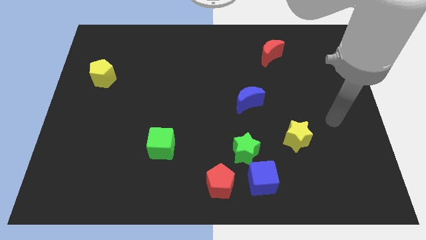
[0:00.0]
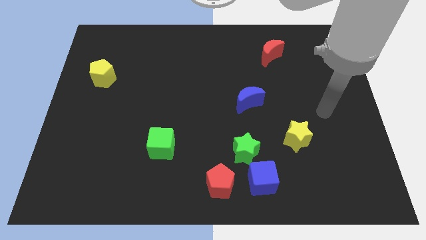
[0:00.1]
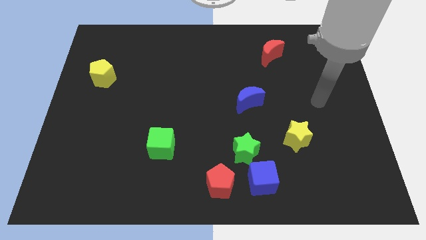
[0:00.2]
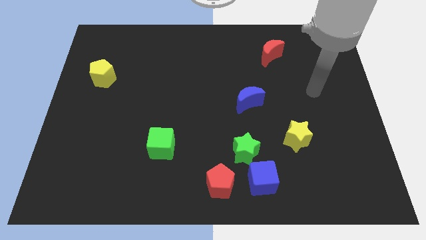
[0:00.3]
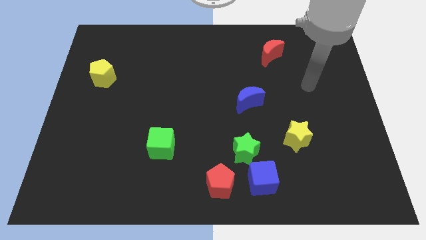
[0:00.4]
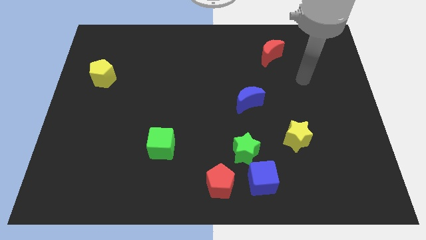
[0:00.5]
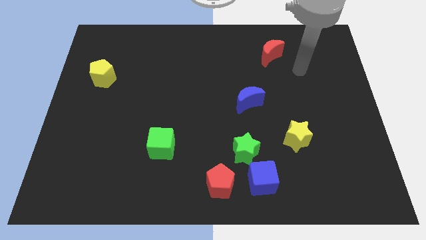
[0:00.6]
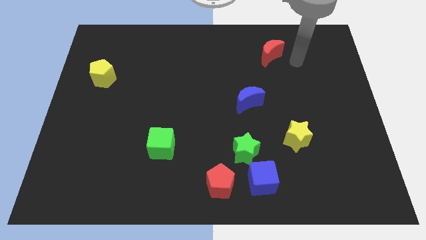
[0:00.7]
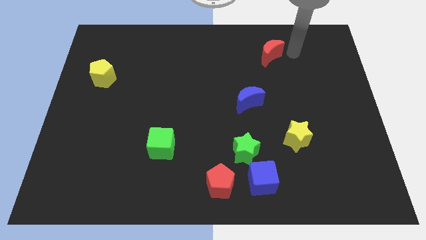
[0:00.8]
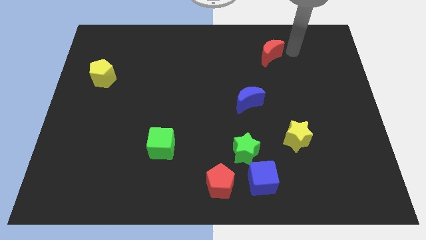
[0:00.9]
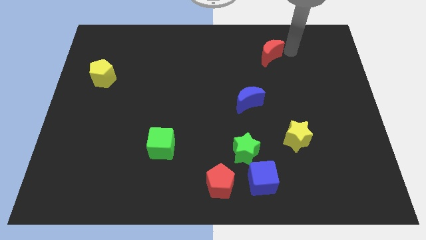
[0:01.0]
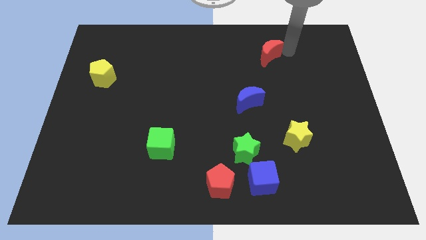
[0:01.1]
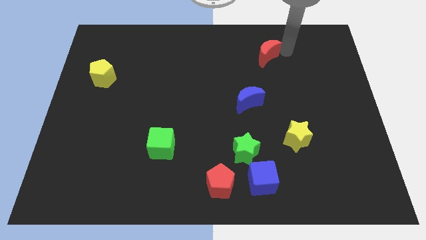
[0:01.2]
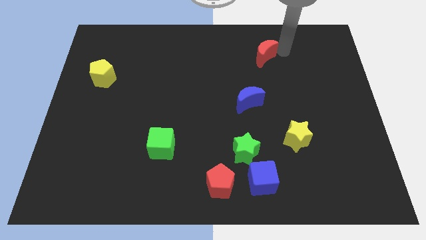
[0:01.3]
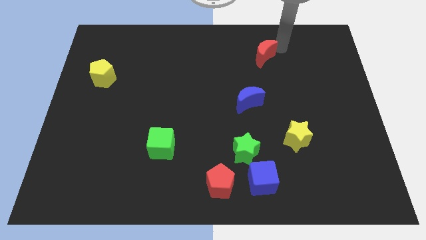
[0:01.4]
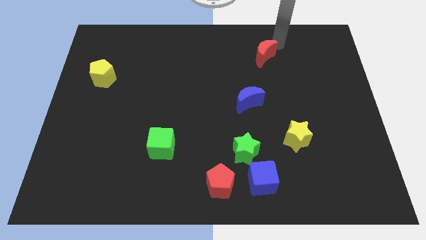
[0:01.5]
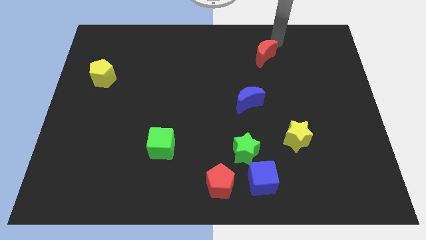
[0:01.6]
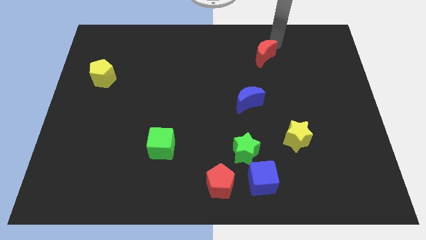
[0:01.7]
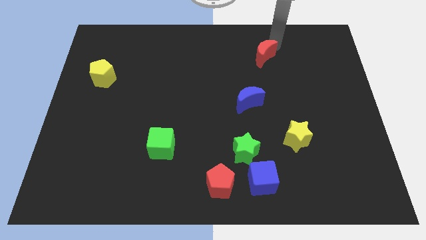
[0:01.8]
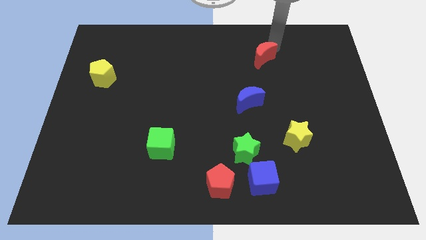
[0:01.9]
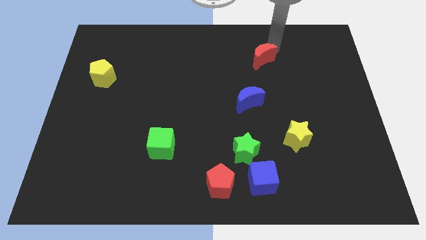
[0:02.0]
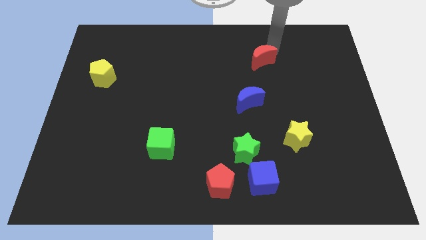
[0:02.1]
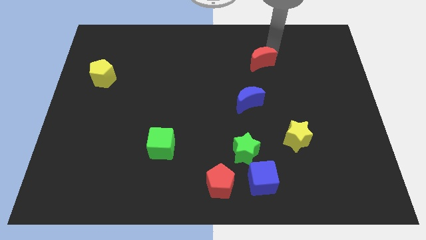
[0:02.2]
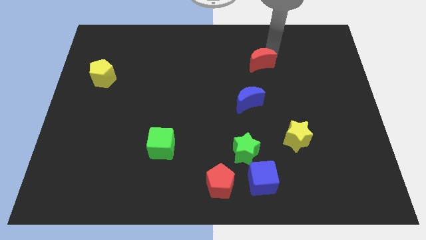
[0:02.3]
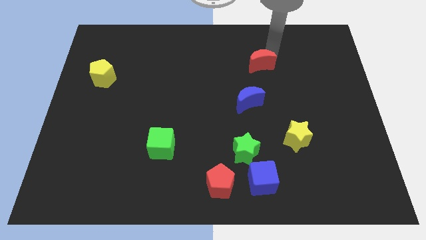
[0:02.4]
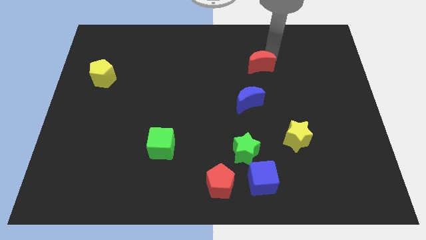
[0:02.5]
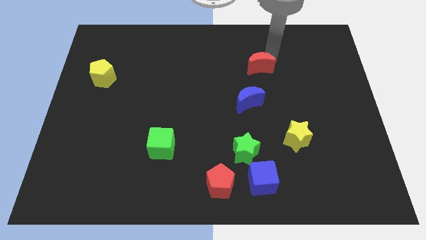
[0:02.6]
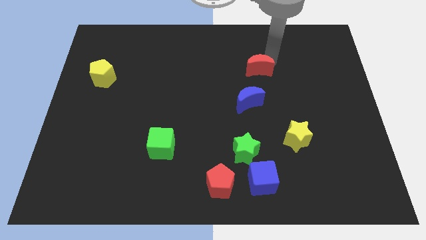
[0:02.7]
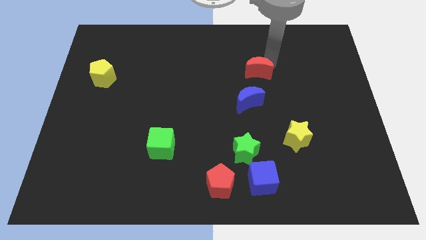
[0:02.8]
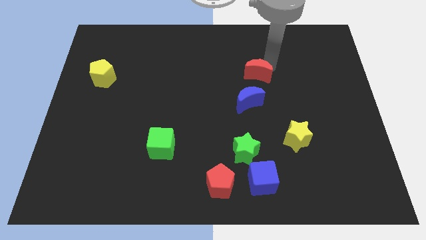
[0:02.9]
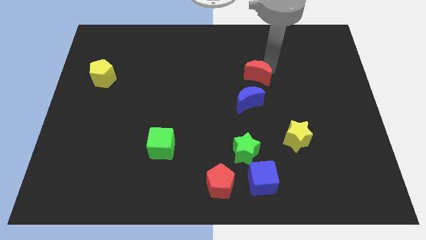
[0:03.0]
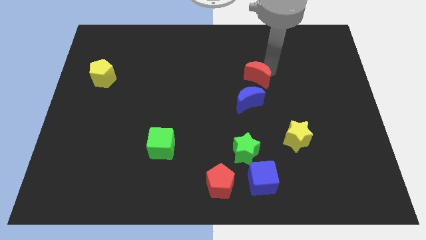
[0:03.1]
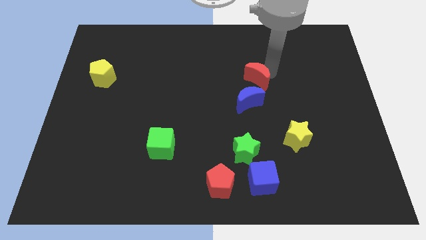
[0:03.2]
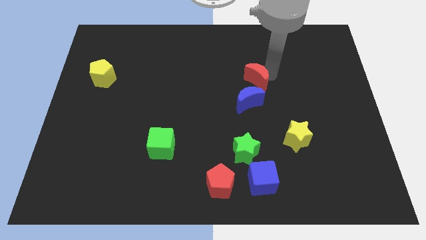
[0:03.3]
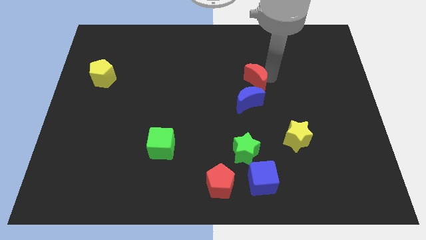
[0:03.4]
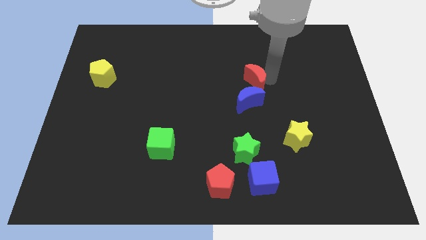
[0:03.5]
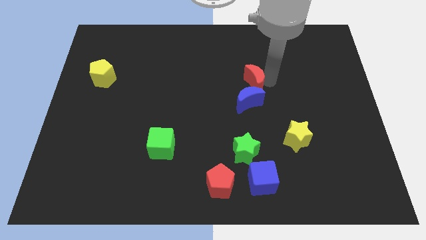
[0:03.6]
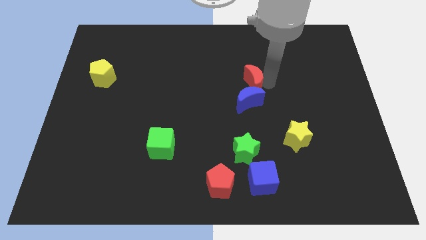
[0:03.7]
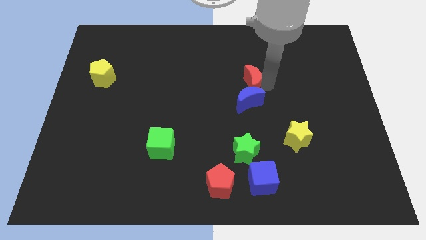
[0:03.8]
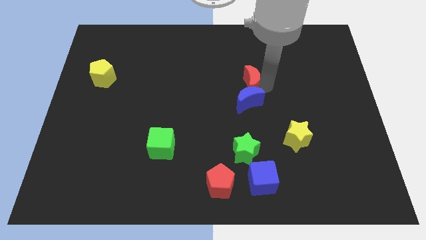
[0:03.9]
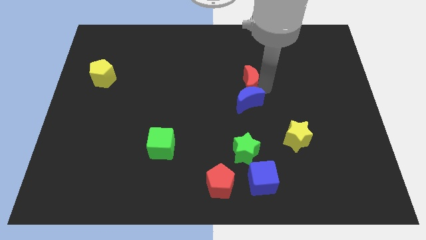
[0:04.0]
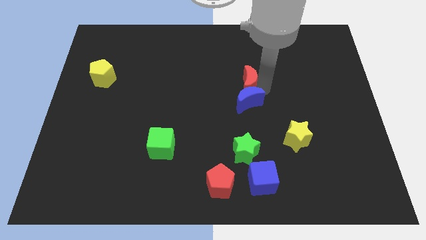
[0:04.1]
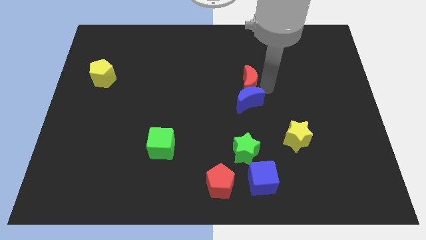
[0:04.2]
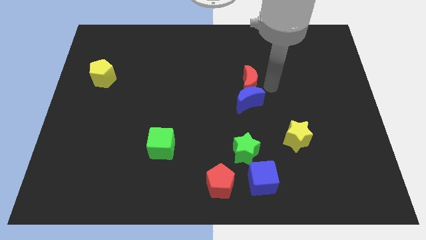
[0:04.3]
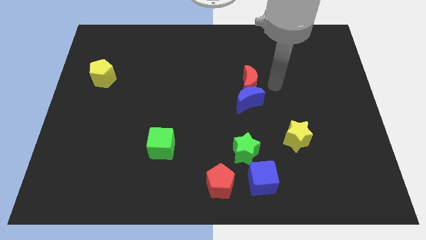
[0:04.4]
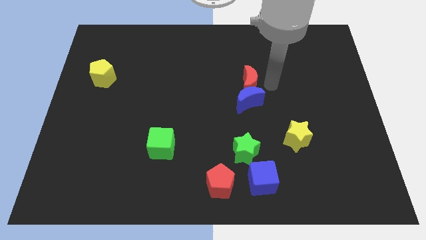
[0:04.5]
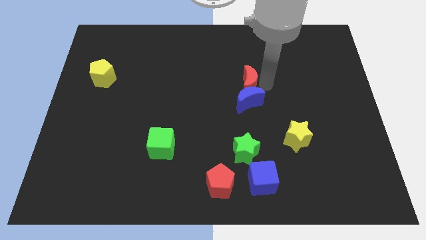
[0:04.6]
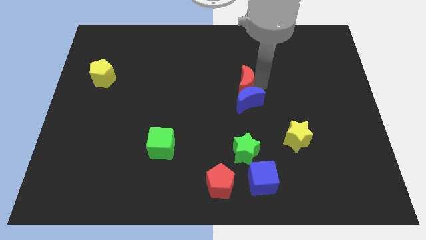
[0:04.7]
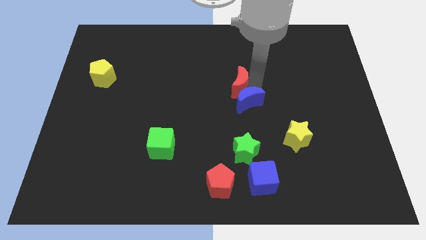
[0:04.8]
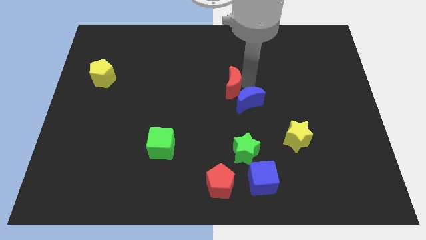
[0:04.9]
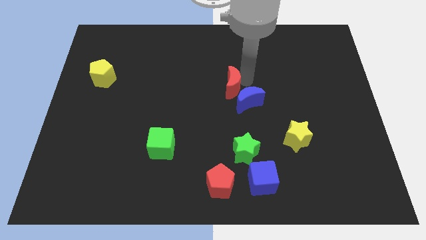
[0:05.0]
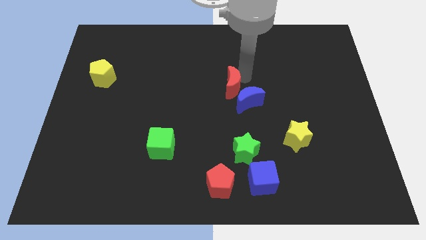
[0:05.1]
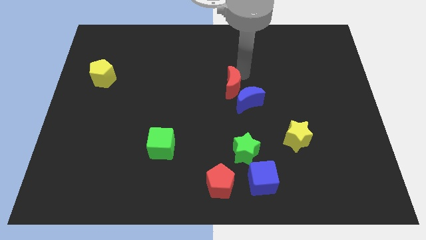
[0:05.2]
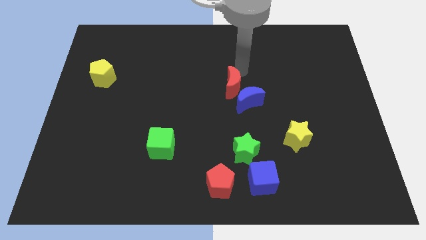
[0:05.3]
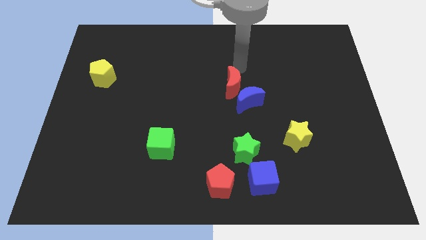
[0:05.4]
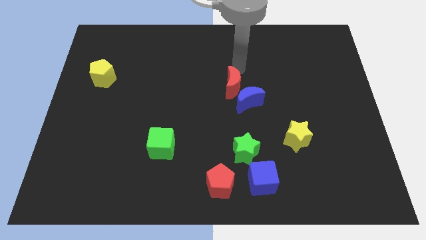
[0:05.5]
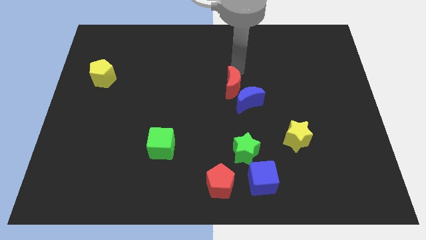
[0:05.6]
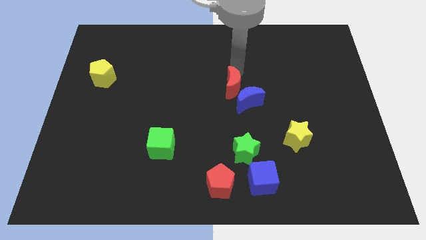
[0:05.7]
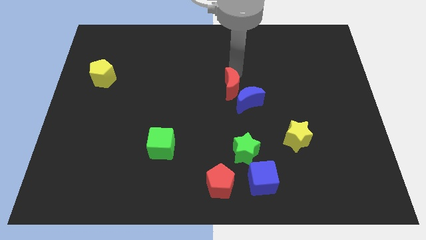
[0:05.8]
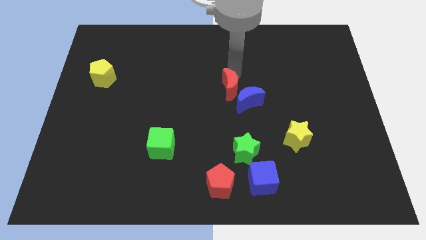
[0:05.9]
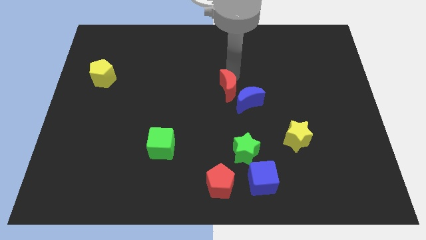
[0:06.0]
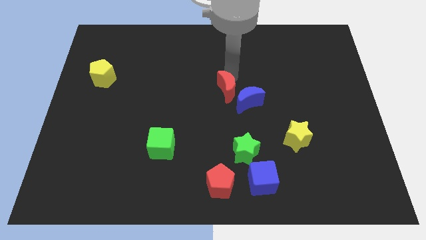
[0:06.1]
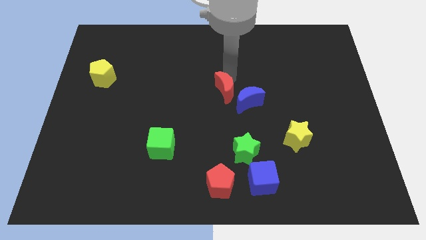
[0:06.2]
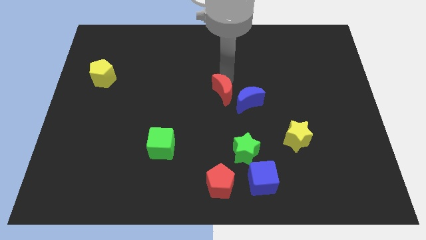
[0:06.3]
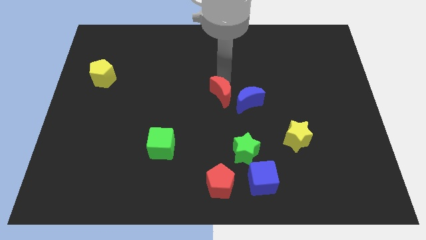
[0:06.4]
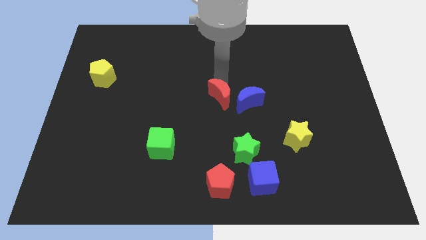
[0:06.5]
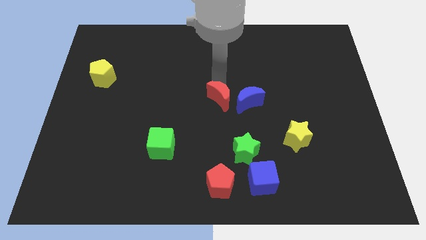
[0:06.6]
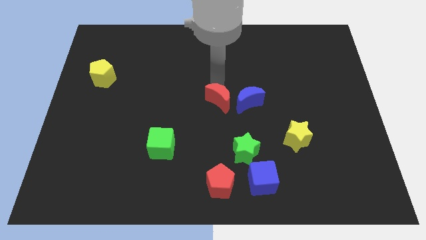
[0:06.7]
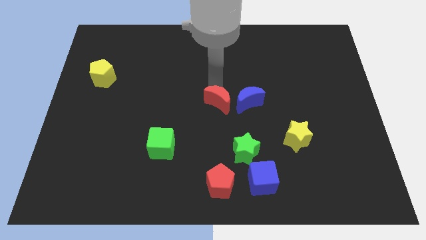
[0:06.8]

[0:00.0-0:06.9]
push the red moon diagonally down and to the left of the blue moon

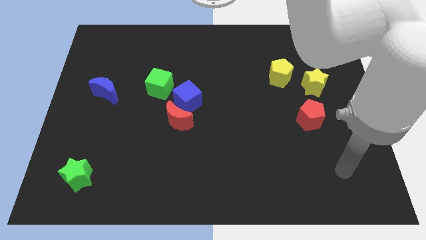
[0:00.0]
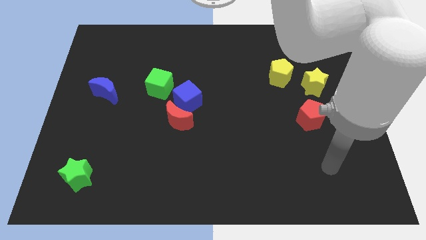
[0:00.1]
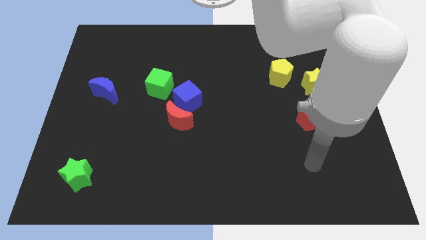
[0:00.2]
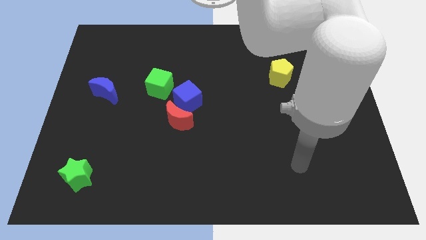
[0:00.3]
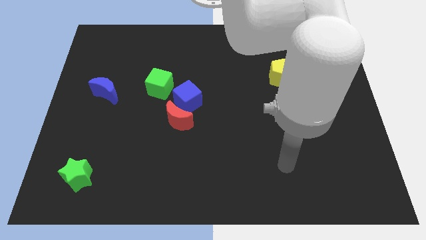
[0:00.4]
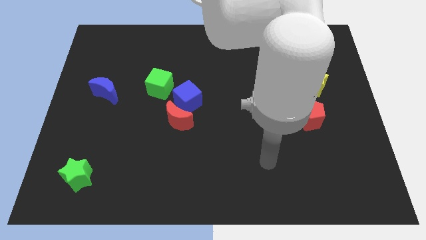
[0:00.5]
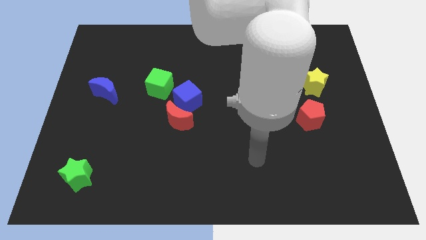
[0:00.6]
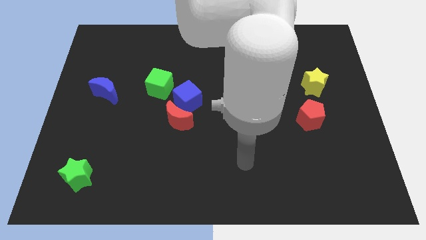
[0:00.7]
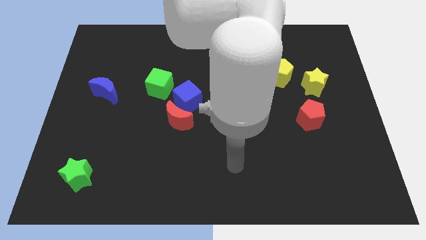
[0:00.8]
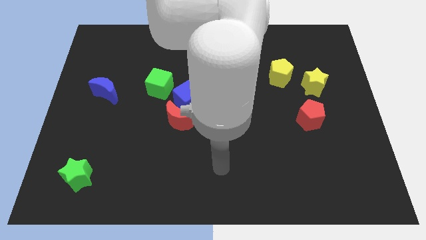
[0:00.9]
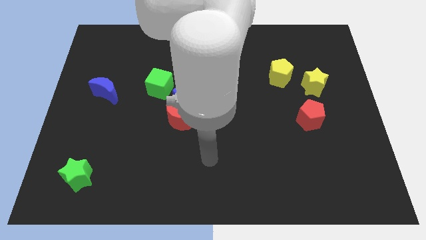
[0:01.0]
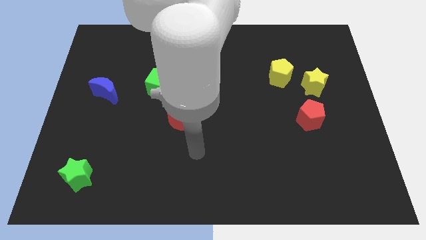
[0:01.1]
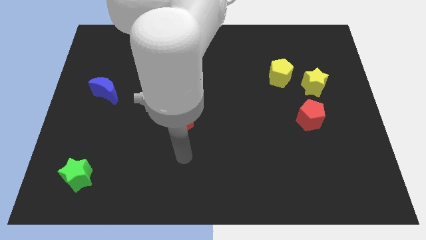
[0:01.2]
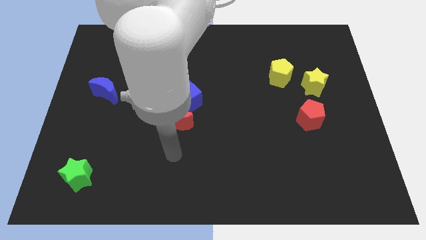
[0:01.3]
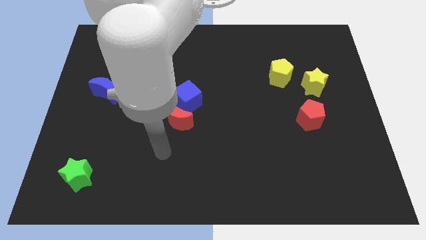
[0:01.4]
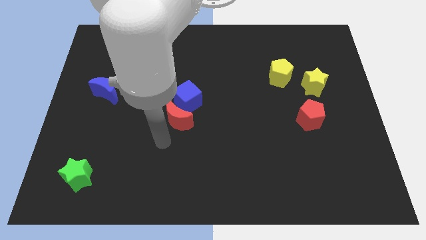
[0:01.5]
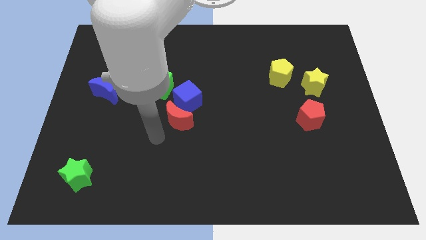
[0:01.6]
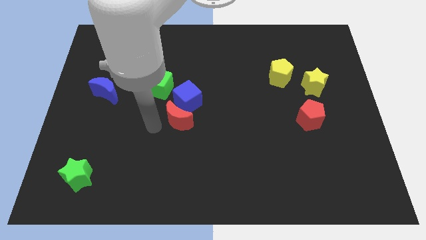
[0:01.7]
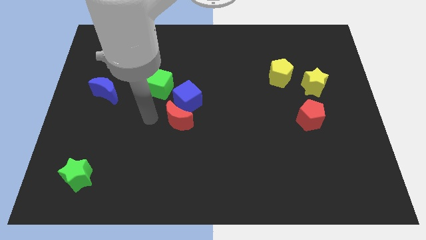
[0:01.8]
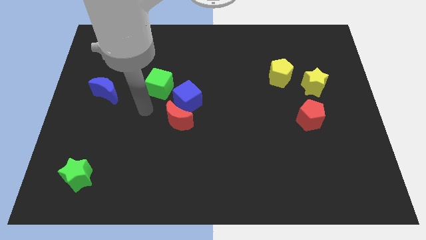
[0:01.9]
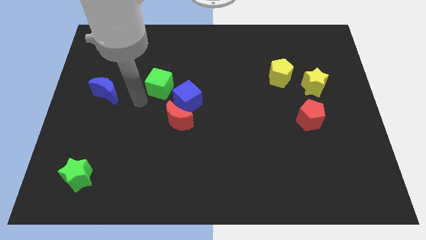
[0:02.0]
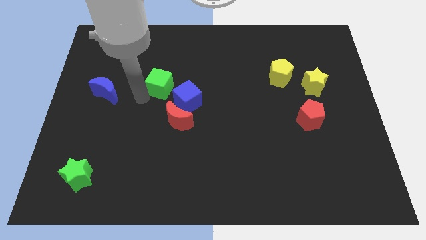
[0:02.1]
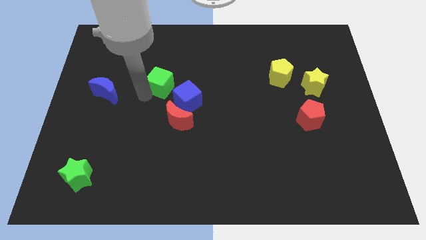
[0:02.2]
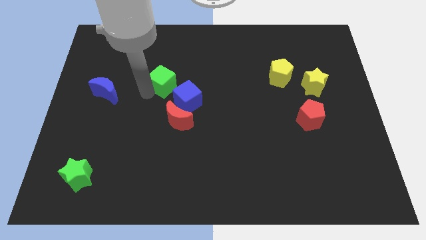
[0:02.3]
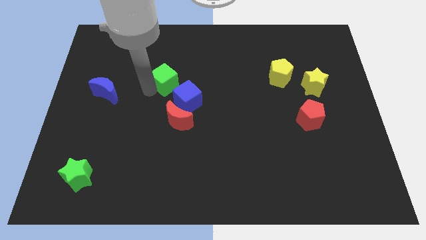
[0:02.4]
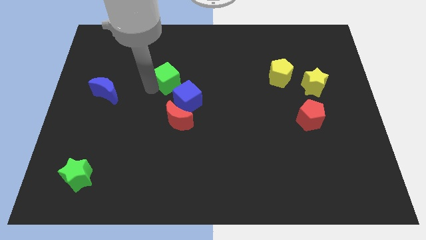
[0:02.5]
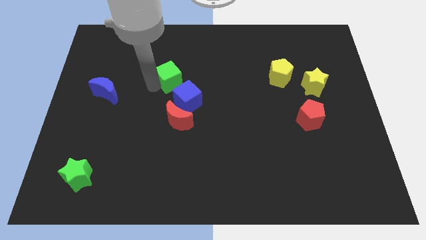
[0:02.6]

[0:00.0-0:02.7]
push the green cube to the top of the blue cube
